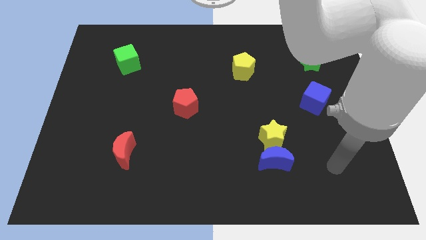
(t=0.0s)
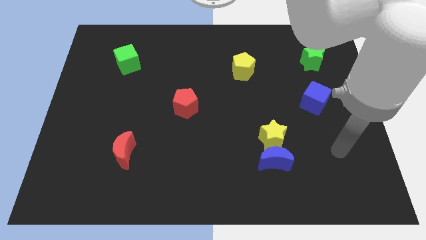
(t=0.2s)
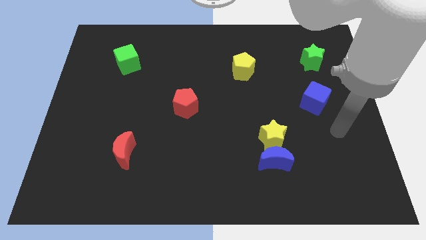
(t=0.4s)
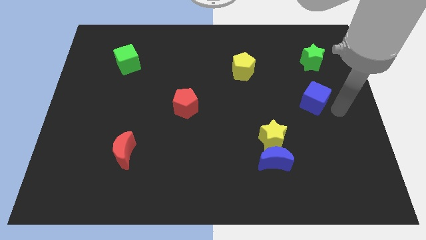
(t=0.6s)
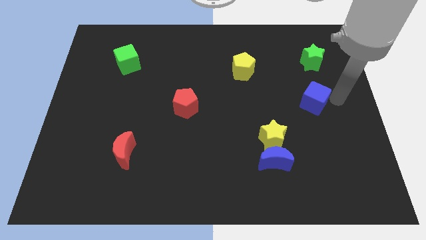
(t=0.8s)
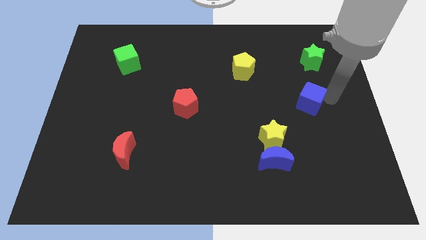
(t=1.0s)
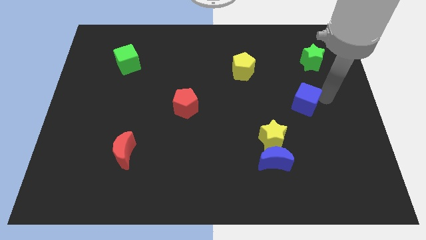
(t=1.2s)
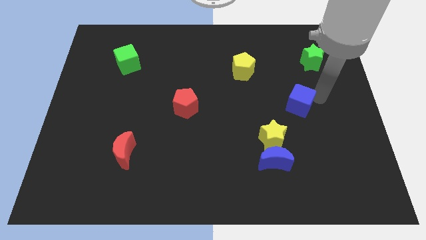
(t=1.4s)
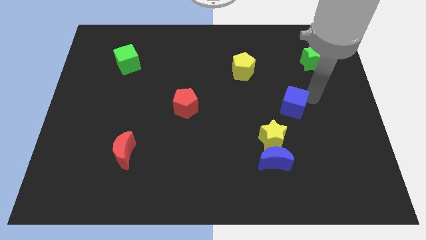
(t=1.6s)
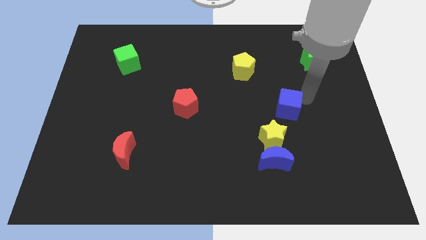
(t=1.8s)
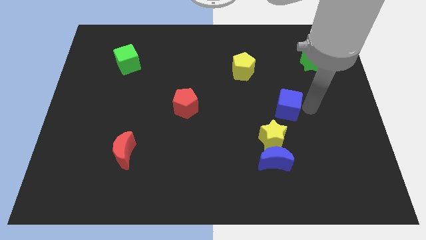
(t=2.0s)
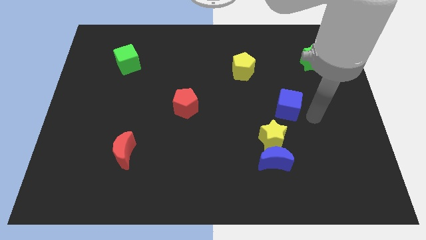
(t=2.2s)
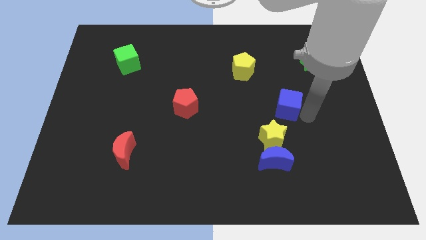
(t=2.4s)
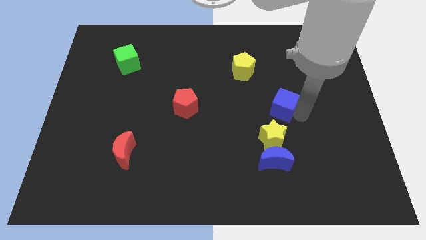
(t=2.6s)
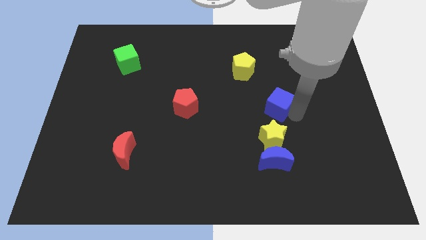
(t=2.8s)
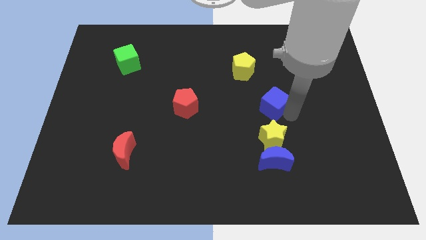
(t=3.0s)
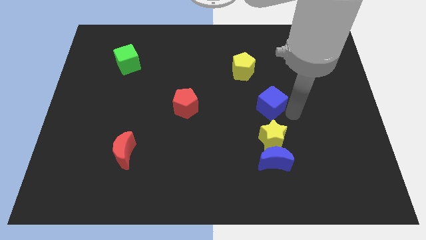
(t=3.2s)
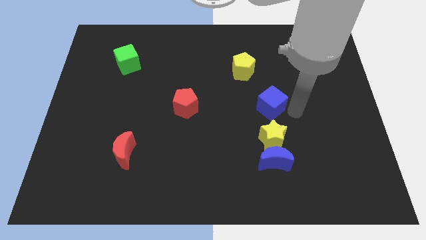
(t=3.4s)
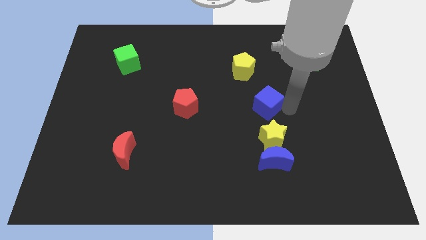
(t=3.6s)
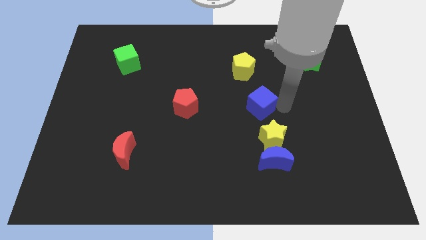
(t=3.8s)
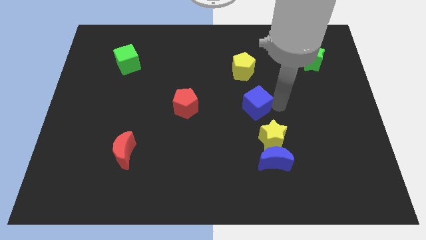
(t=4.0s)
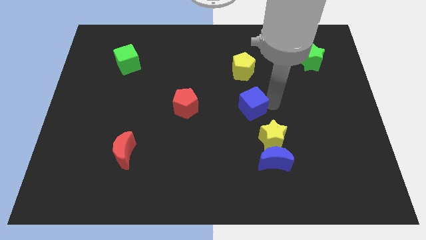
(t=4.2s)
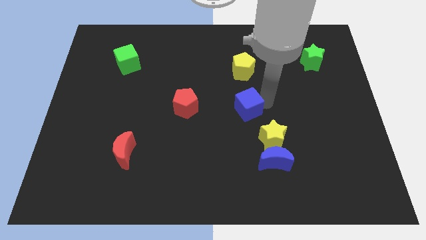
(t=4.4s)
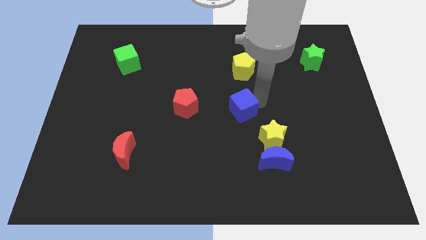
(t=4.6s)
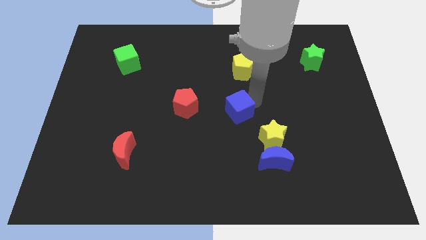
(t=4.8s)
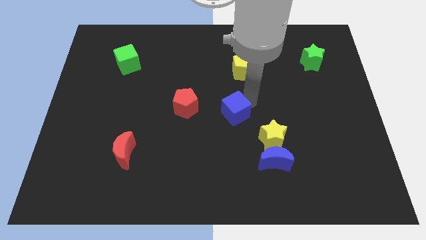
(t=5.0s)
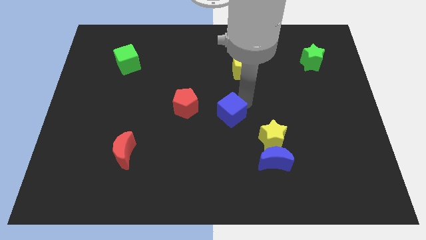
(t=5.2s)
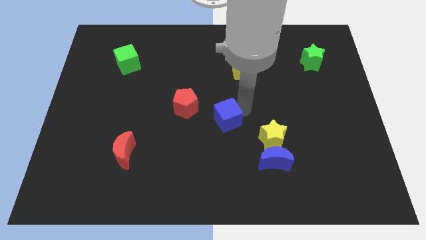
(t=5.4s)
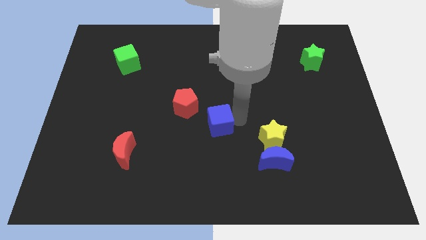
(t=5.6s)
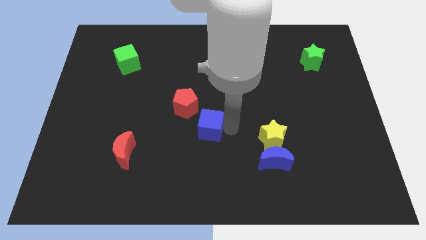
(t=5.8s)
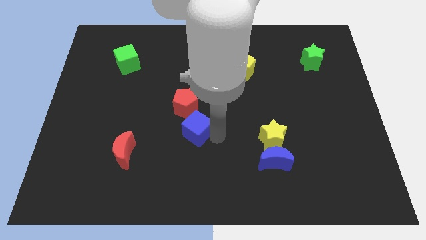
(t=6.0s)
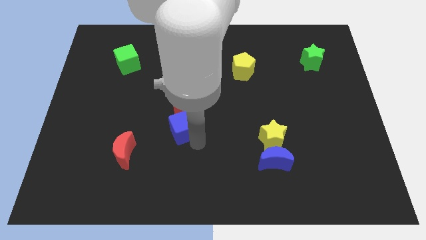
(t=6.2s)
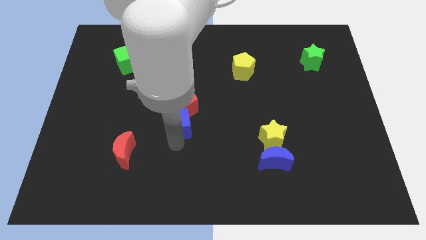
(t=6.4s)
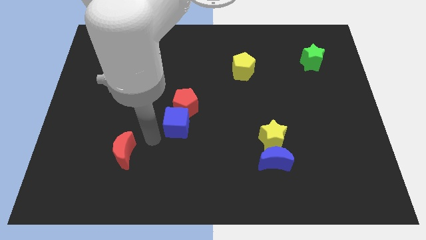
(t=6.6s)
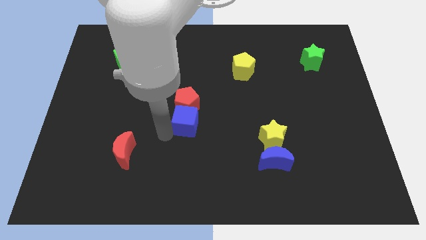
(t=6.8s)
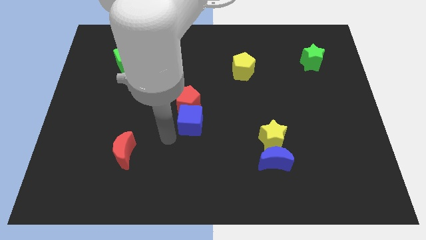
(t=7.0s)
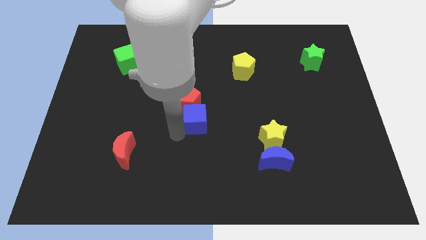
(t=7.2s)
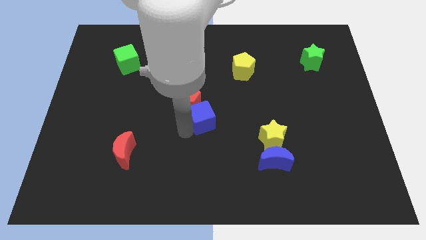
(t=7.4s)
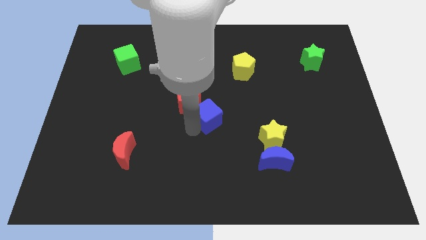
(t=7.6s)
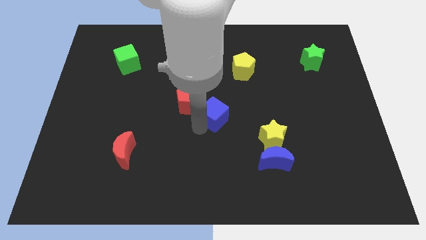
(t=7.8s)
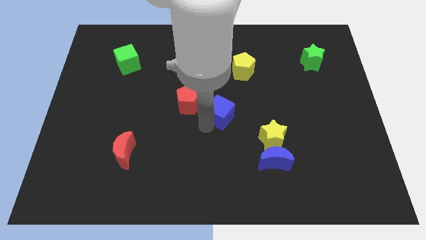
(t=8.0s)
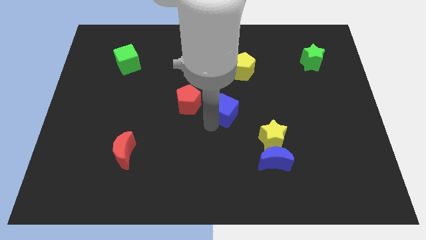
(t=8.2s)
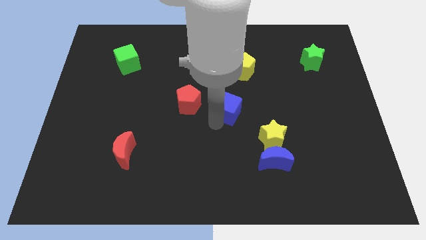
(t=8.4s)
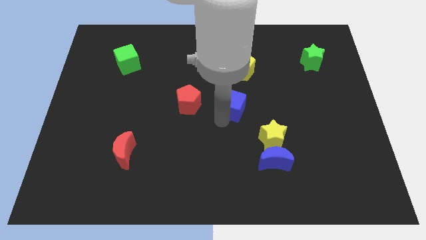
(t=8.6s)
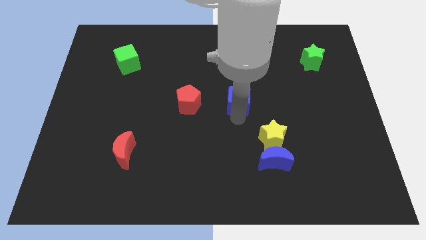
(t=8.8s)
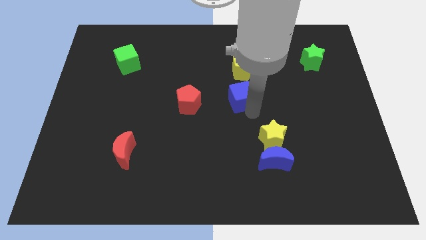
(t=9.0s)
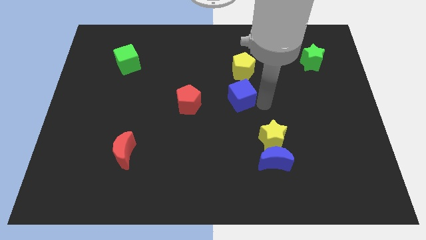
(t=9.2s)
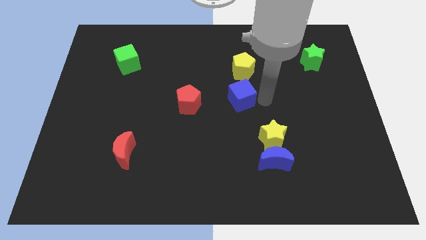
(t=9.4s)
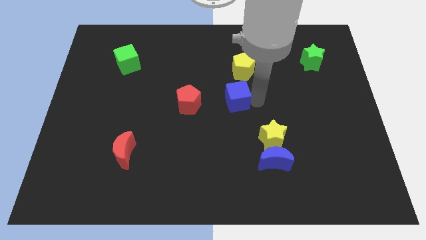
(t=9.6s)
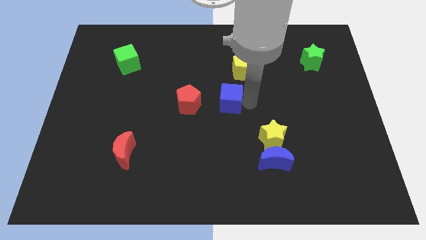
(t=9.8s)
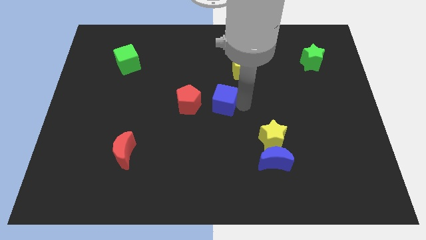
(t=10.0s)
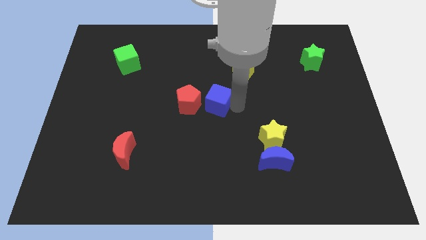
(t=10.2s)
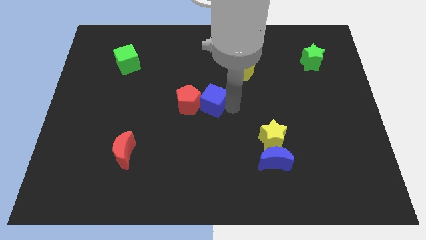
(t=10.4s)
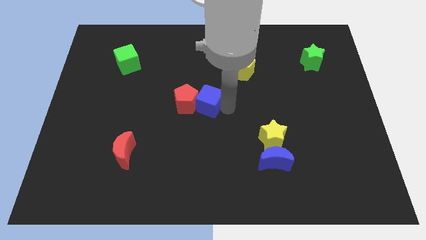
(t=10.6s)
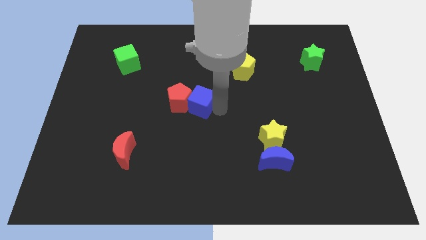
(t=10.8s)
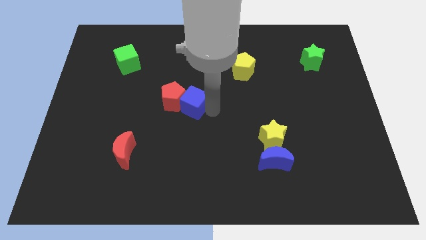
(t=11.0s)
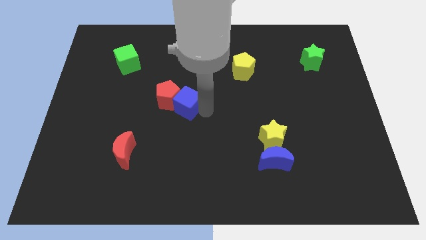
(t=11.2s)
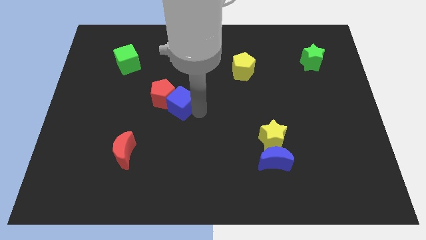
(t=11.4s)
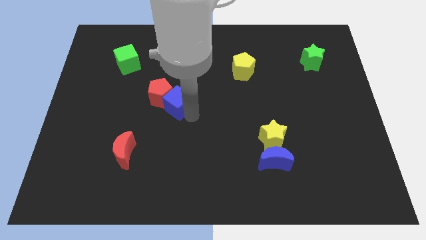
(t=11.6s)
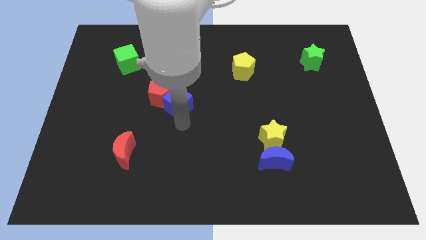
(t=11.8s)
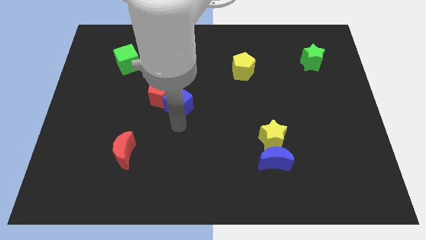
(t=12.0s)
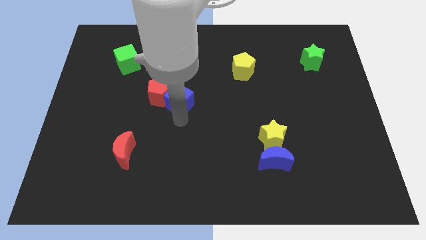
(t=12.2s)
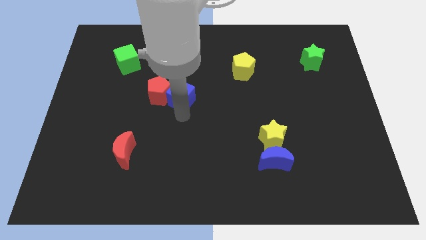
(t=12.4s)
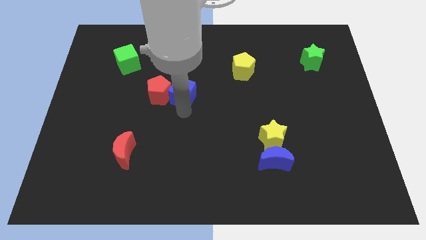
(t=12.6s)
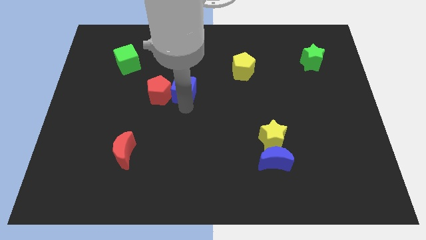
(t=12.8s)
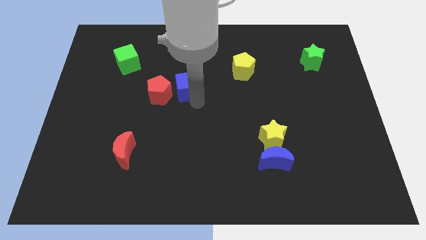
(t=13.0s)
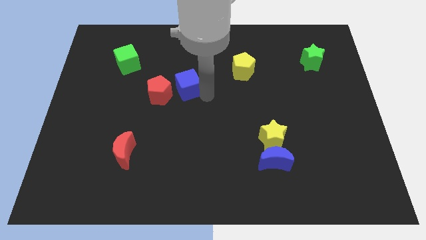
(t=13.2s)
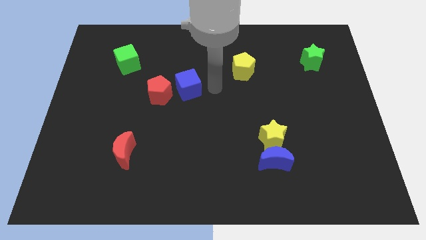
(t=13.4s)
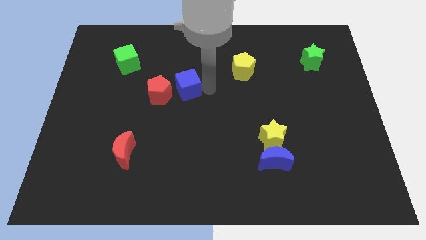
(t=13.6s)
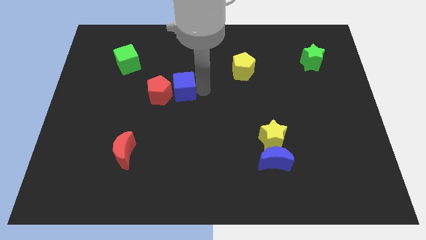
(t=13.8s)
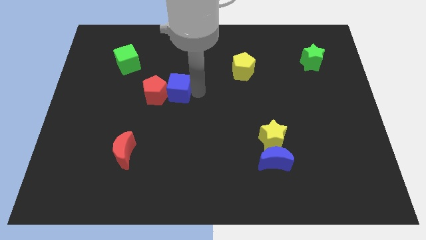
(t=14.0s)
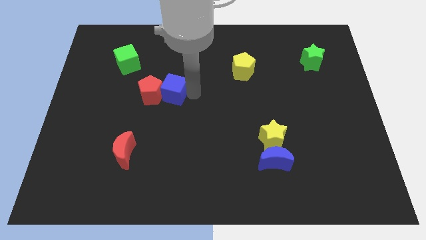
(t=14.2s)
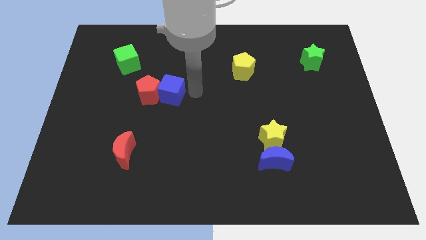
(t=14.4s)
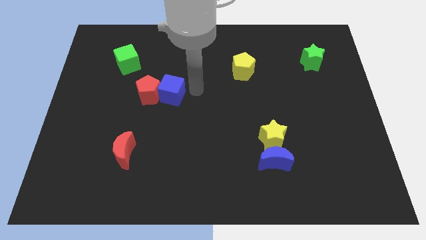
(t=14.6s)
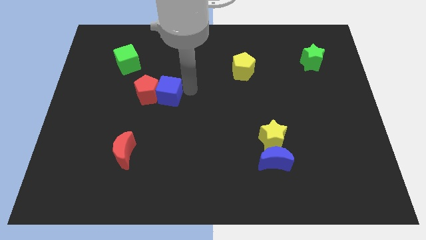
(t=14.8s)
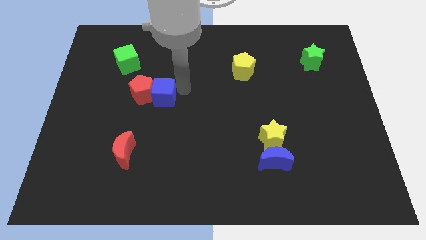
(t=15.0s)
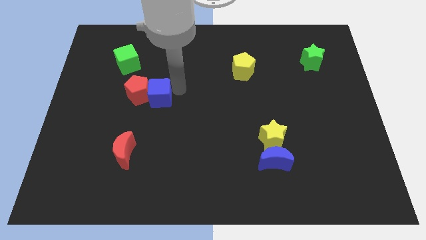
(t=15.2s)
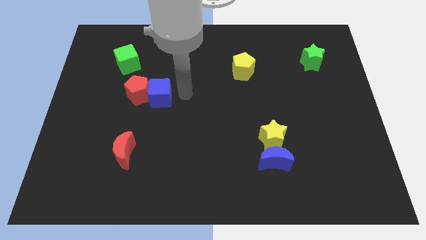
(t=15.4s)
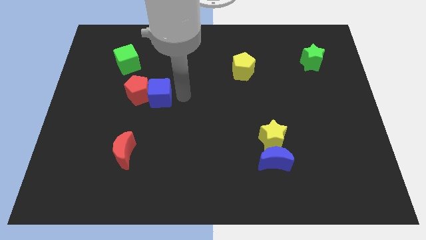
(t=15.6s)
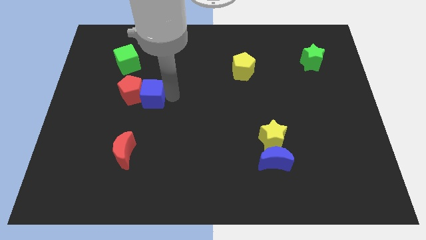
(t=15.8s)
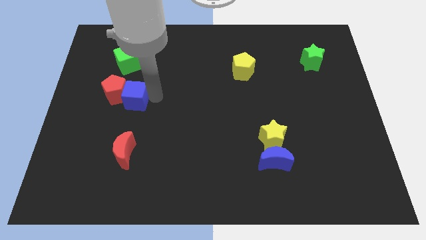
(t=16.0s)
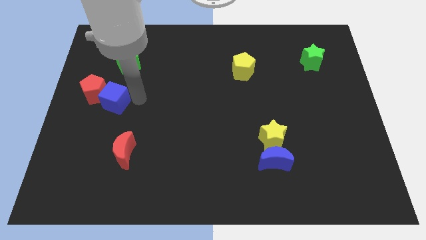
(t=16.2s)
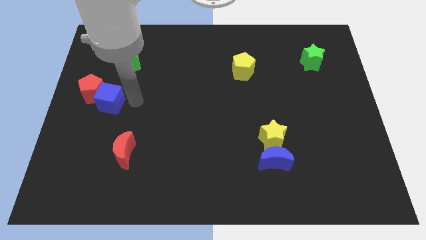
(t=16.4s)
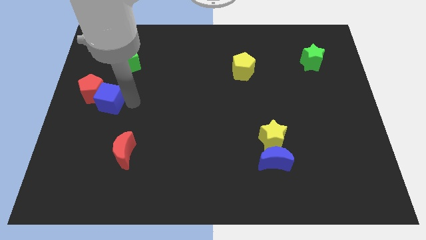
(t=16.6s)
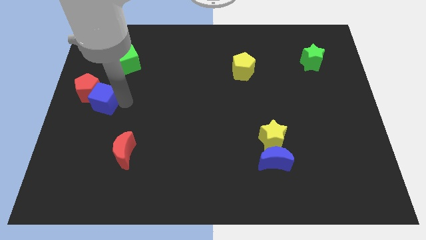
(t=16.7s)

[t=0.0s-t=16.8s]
move the blue cube to the left side
